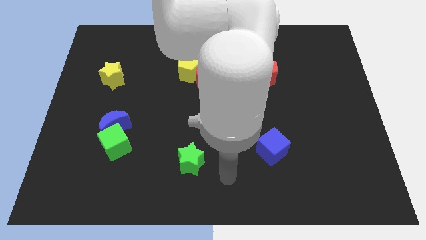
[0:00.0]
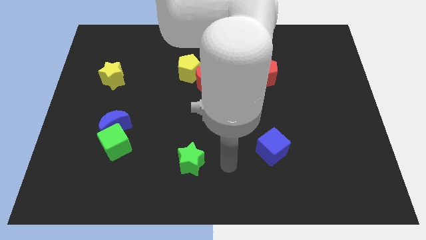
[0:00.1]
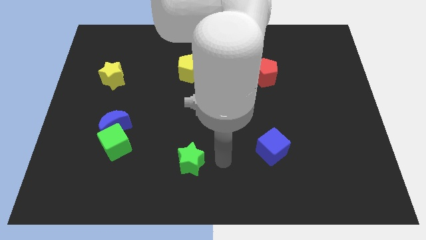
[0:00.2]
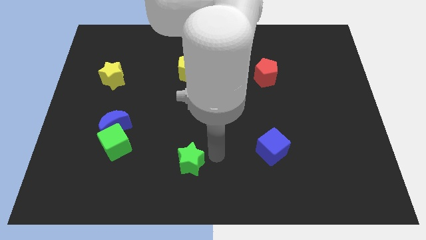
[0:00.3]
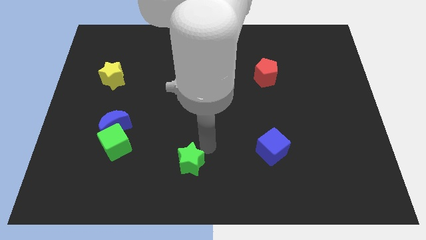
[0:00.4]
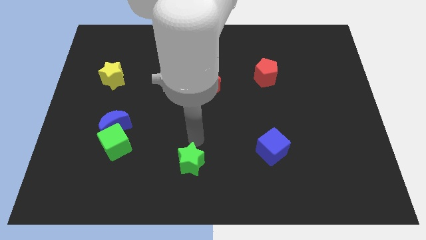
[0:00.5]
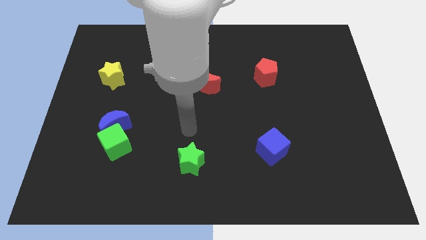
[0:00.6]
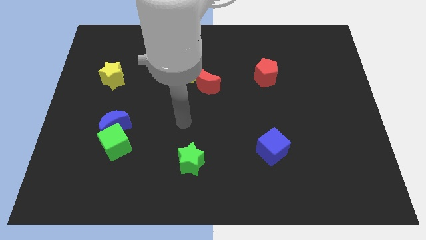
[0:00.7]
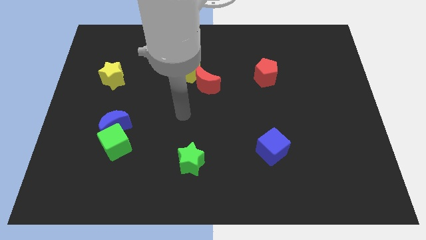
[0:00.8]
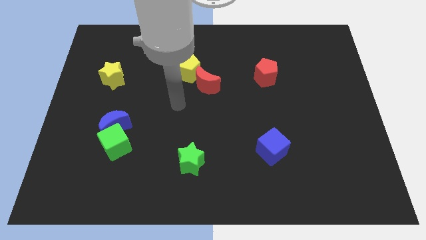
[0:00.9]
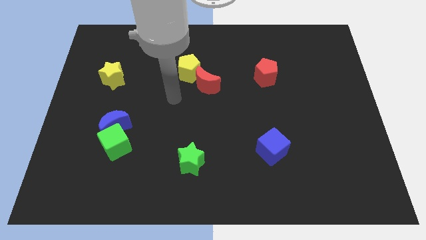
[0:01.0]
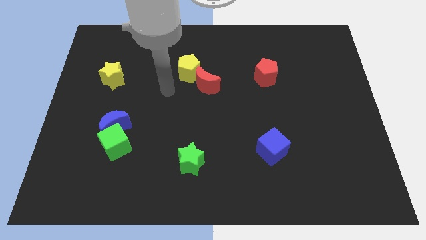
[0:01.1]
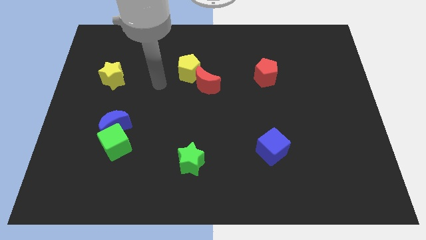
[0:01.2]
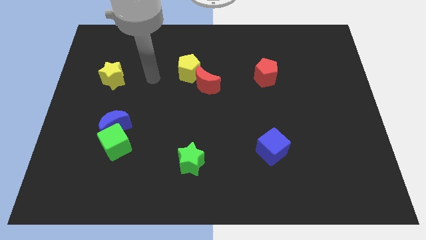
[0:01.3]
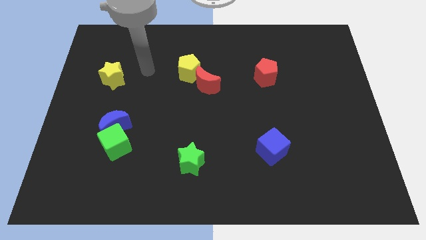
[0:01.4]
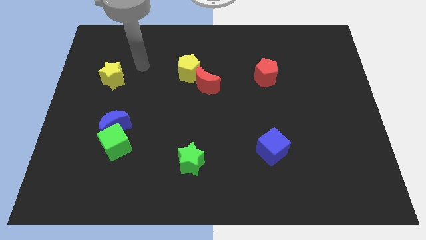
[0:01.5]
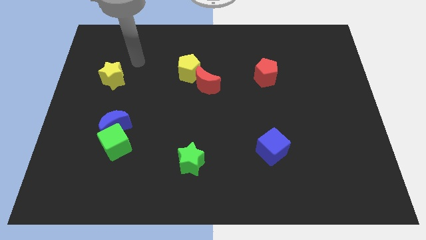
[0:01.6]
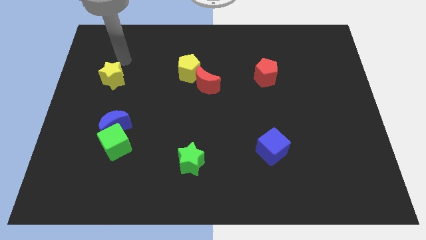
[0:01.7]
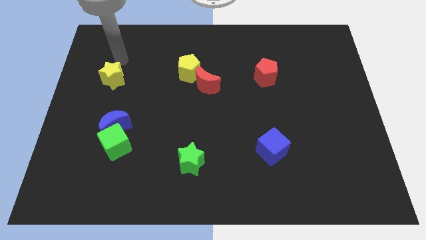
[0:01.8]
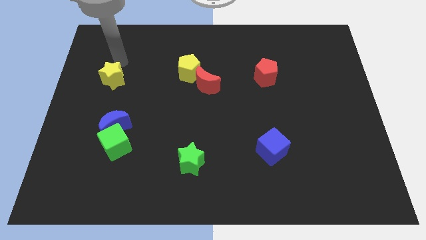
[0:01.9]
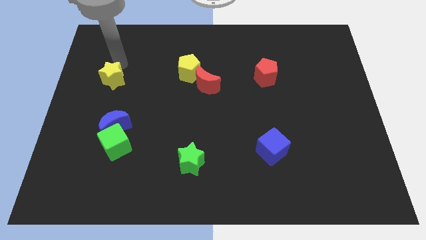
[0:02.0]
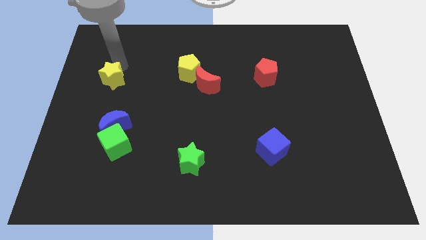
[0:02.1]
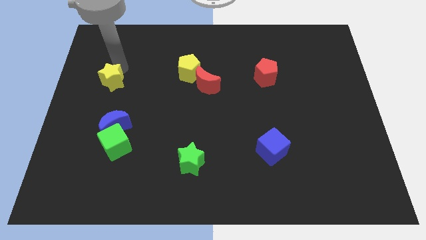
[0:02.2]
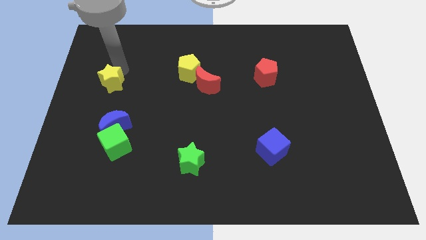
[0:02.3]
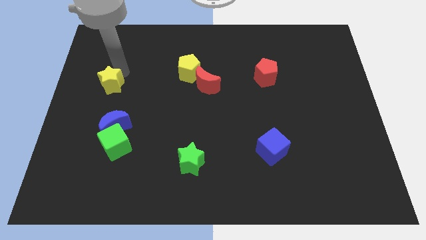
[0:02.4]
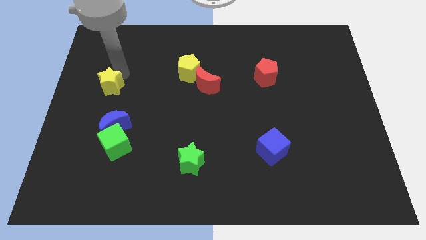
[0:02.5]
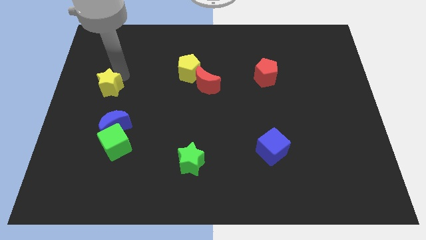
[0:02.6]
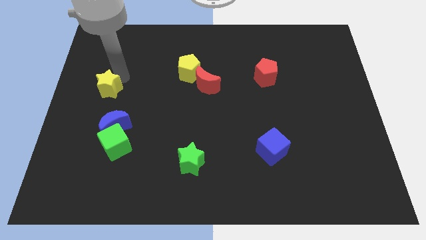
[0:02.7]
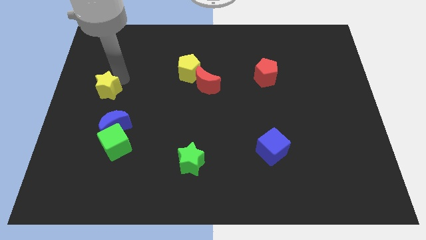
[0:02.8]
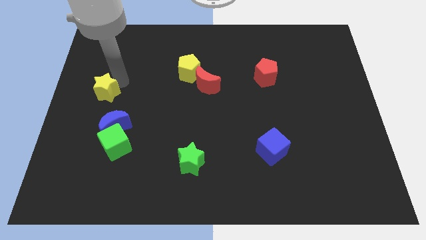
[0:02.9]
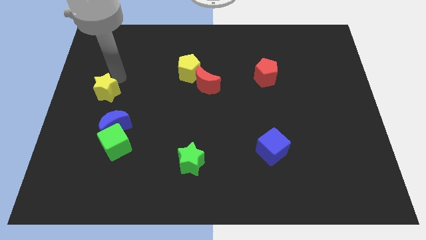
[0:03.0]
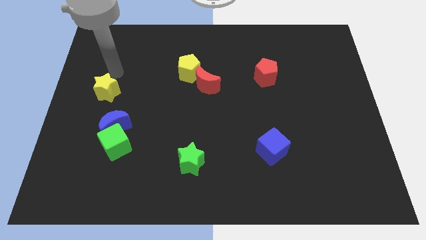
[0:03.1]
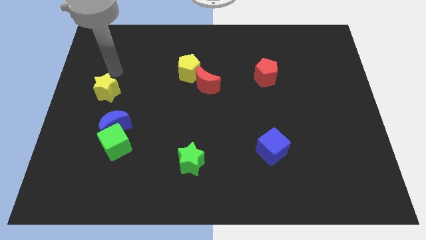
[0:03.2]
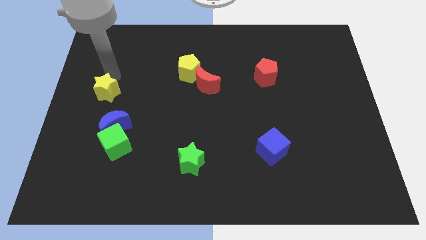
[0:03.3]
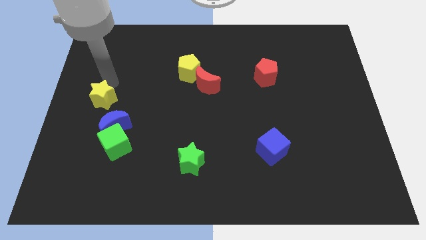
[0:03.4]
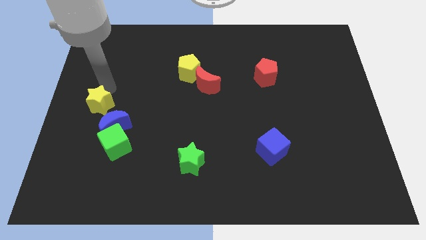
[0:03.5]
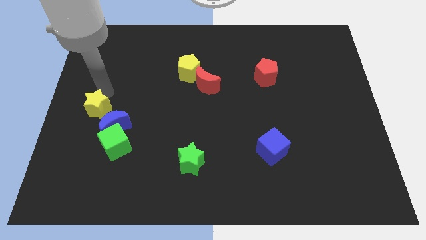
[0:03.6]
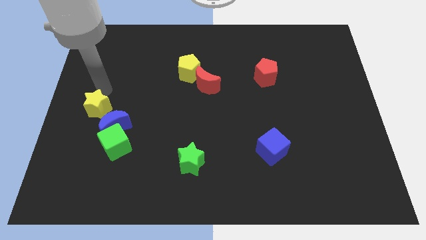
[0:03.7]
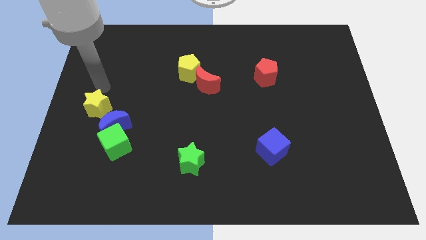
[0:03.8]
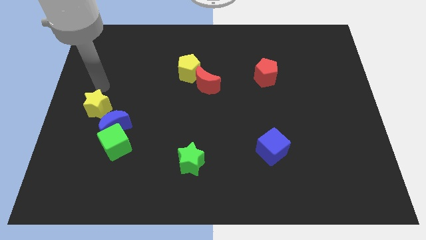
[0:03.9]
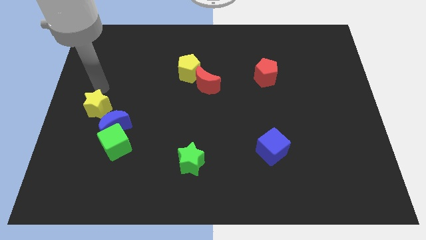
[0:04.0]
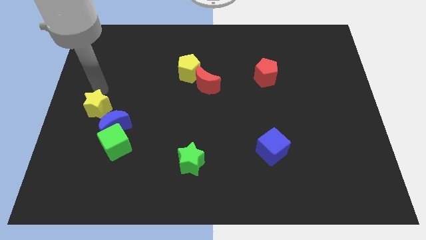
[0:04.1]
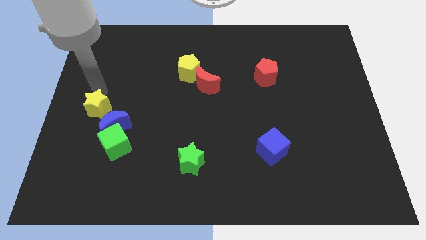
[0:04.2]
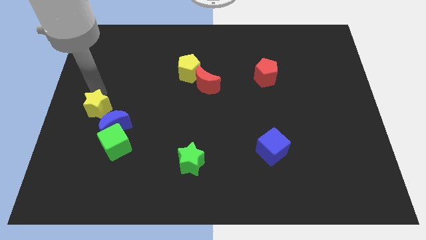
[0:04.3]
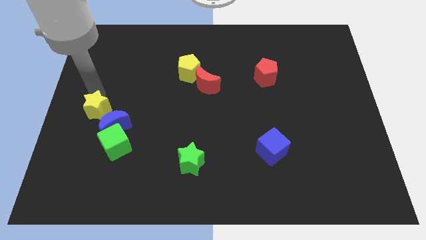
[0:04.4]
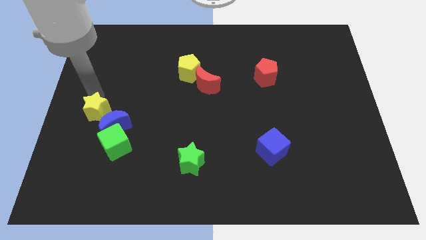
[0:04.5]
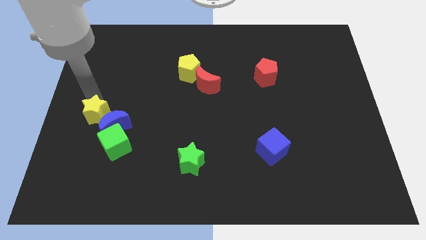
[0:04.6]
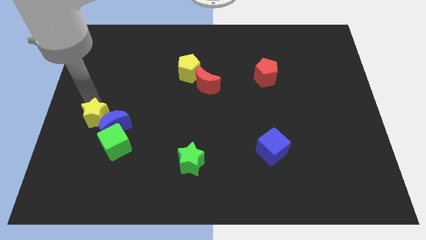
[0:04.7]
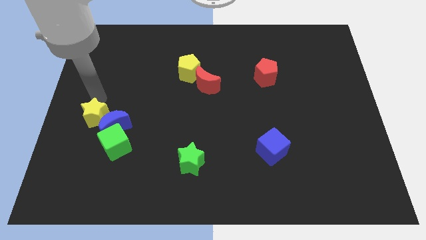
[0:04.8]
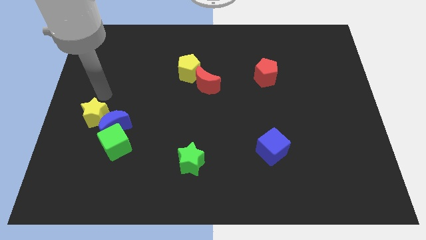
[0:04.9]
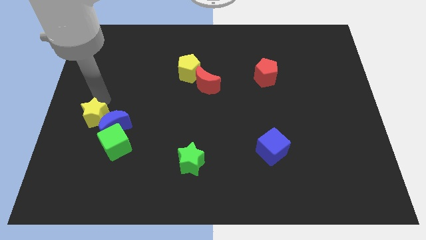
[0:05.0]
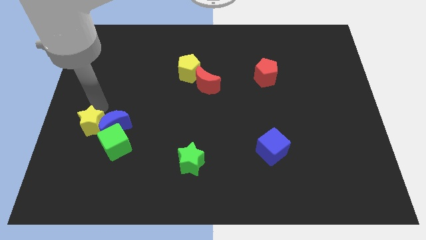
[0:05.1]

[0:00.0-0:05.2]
move the yellow star to the bottom left of the blue moon

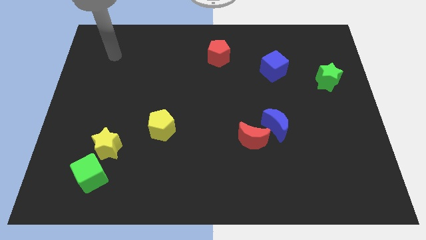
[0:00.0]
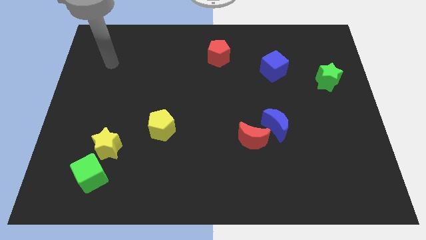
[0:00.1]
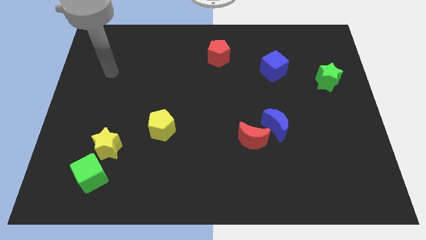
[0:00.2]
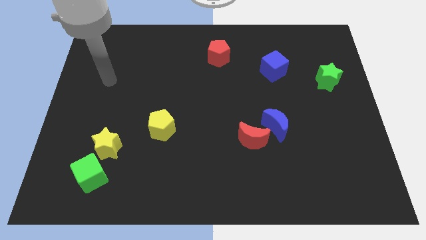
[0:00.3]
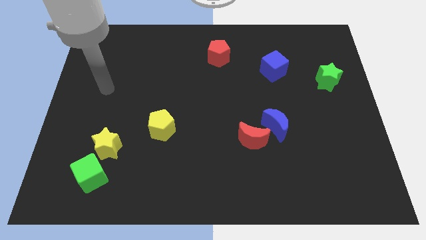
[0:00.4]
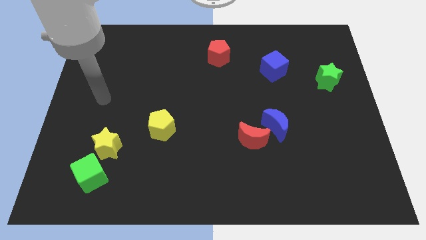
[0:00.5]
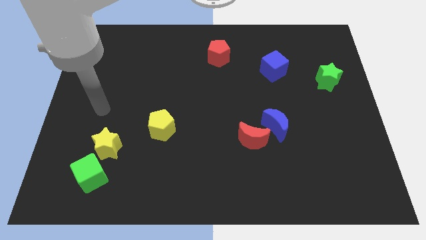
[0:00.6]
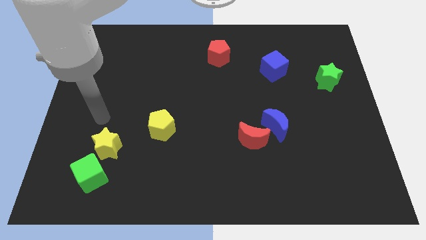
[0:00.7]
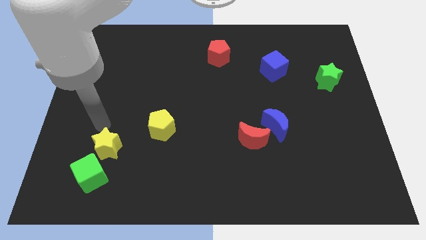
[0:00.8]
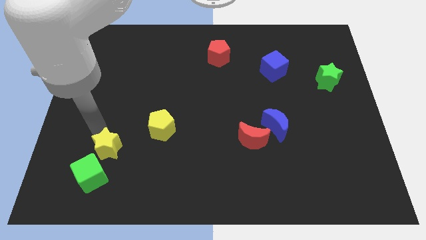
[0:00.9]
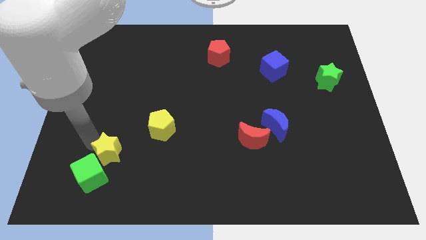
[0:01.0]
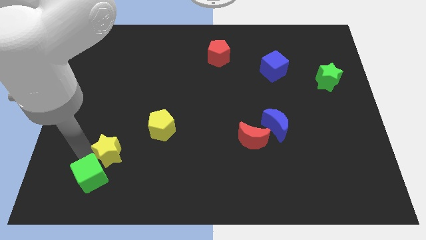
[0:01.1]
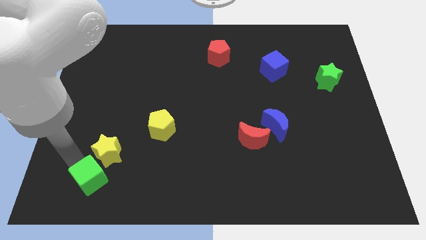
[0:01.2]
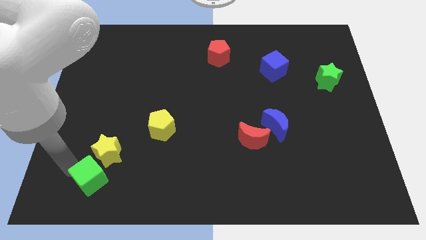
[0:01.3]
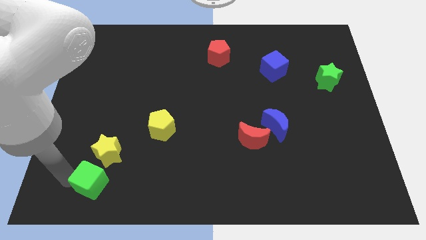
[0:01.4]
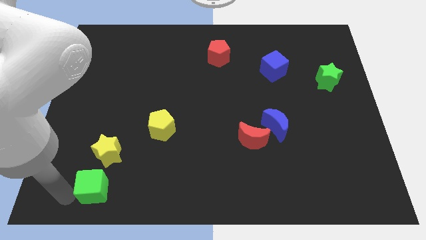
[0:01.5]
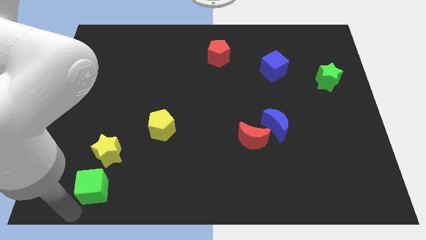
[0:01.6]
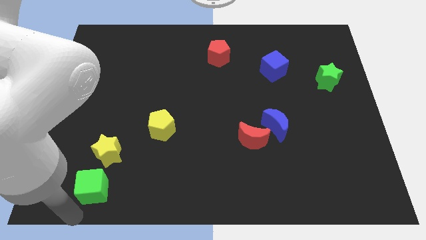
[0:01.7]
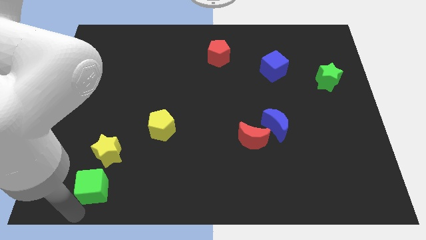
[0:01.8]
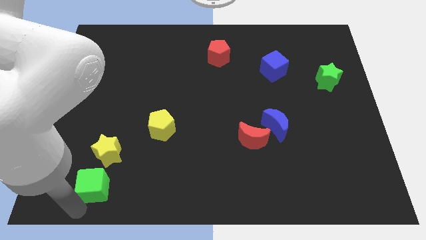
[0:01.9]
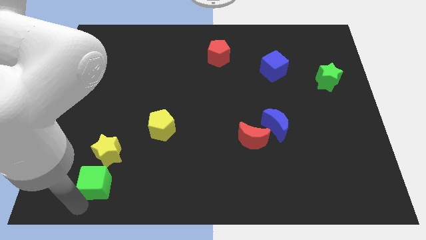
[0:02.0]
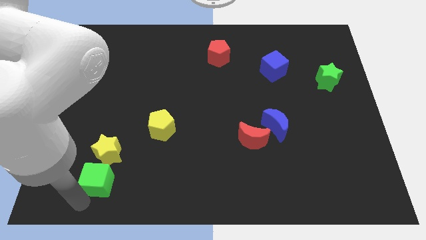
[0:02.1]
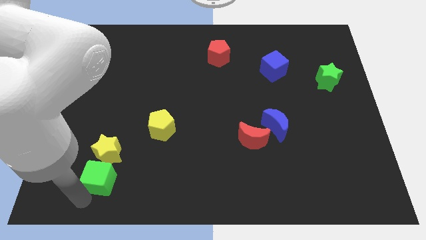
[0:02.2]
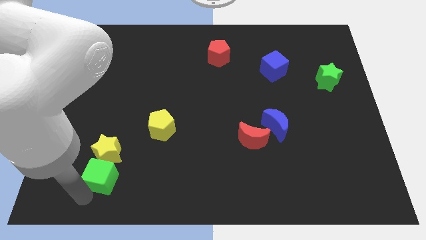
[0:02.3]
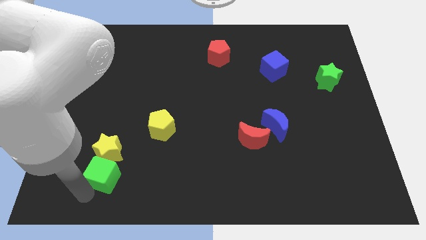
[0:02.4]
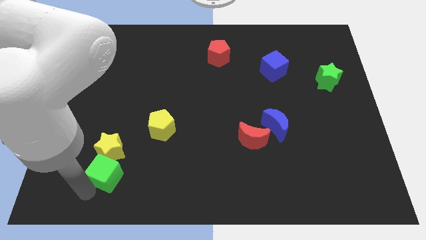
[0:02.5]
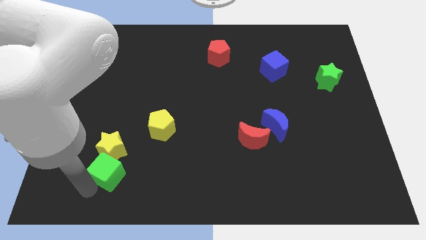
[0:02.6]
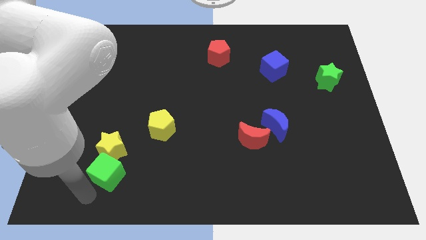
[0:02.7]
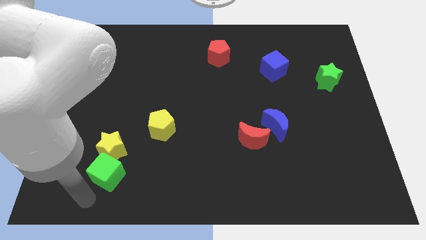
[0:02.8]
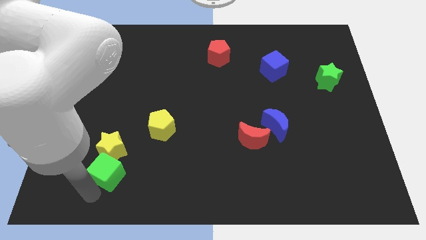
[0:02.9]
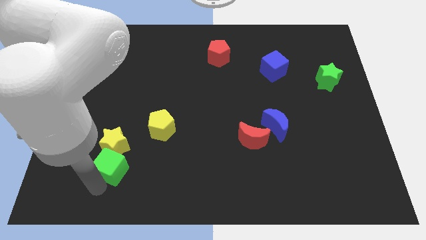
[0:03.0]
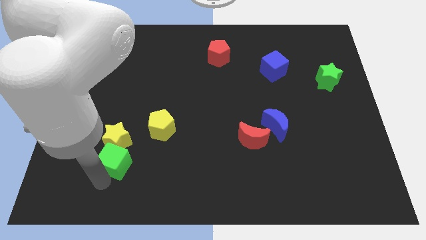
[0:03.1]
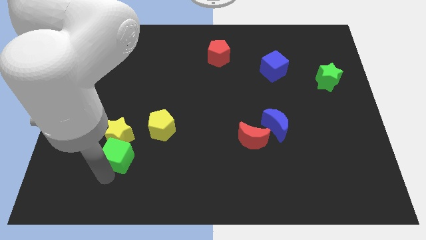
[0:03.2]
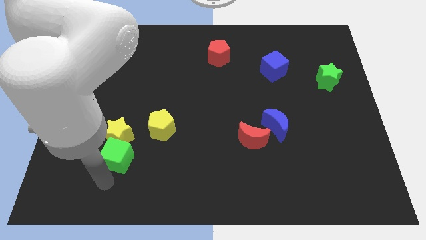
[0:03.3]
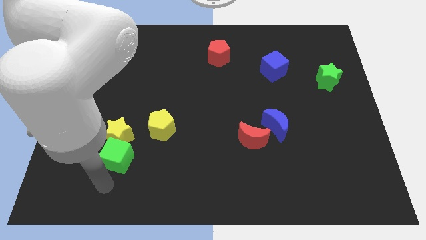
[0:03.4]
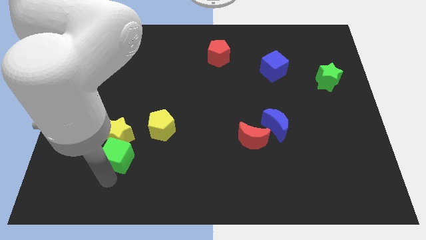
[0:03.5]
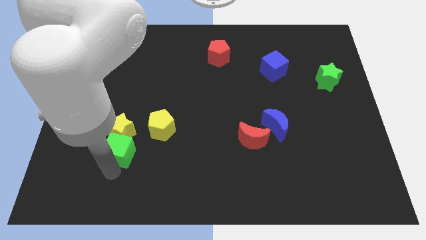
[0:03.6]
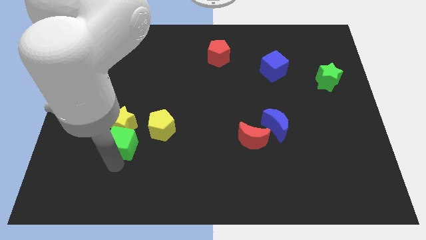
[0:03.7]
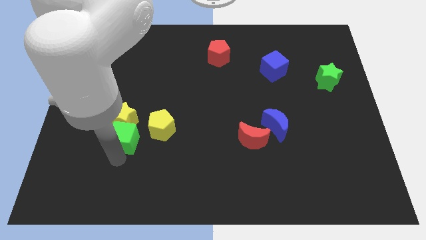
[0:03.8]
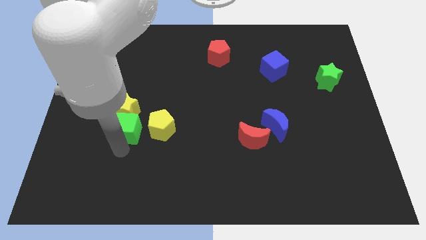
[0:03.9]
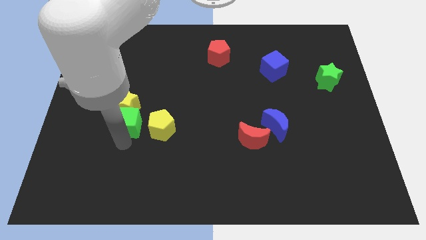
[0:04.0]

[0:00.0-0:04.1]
move the green cube to the top left side of the yellow pentagon
